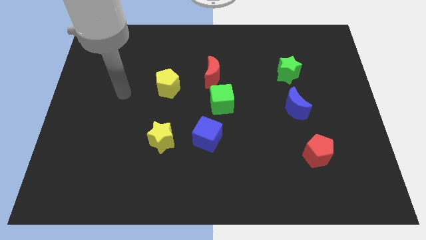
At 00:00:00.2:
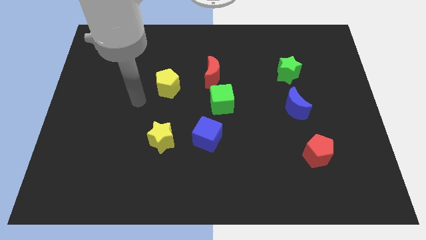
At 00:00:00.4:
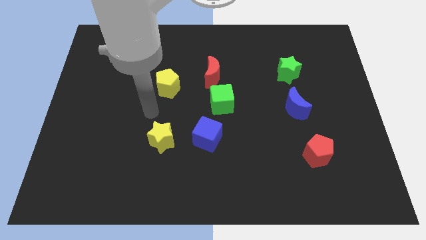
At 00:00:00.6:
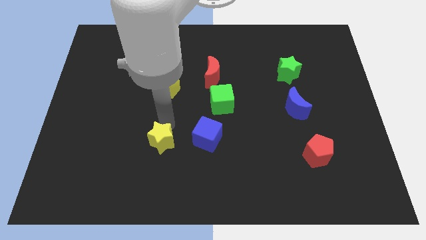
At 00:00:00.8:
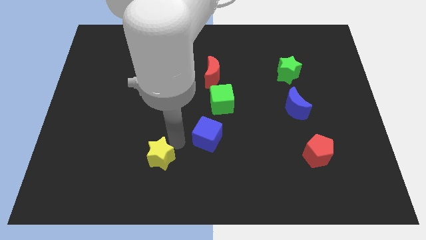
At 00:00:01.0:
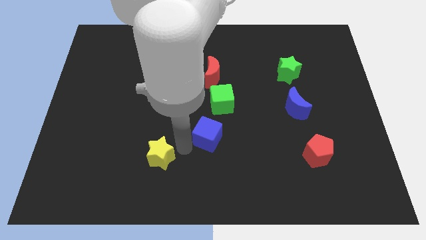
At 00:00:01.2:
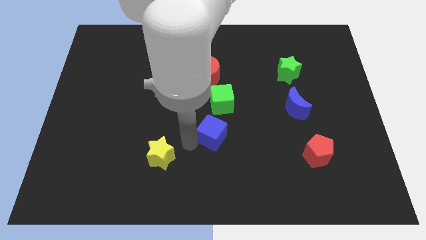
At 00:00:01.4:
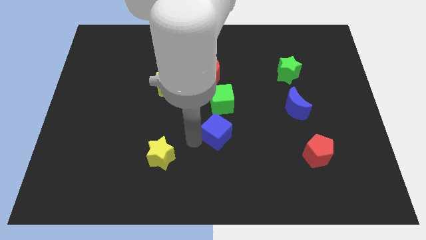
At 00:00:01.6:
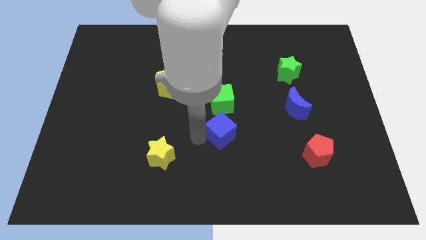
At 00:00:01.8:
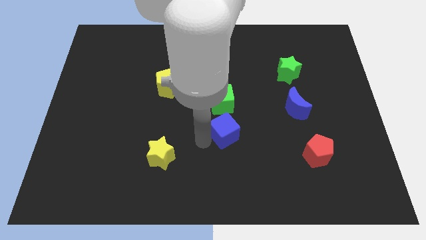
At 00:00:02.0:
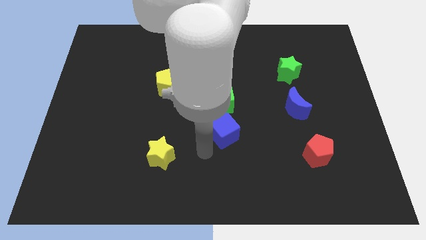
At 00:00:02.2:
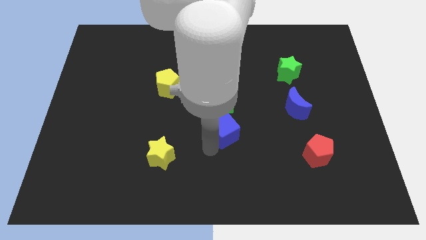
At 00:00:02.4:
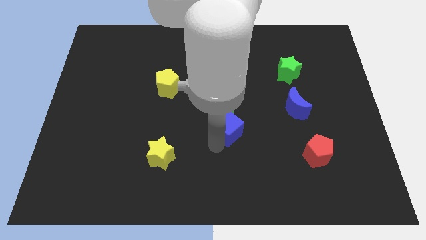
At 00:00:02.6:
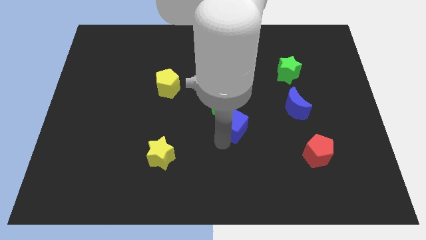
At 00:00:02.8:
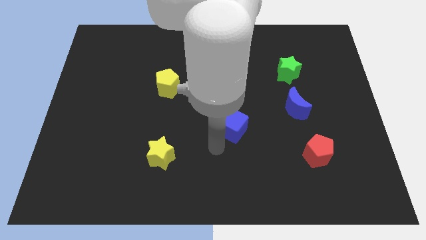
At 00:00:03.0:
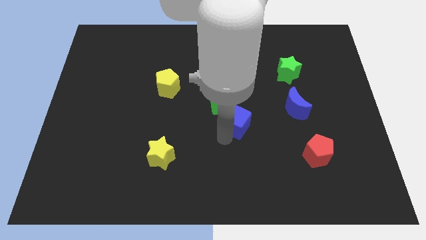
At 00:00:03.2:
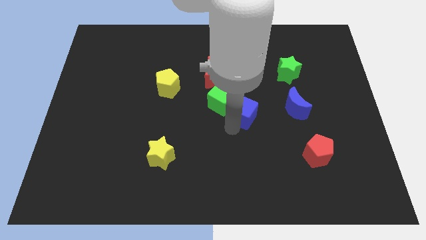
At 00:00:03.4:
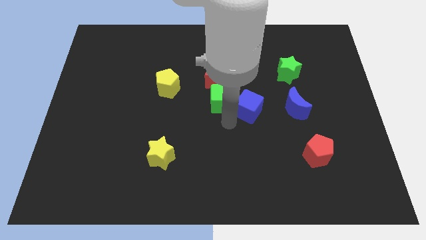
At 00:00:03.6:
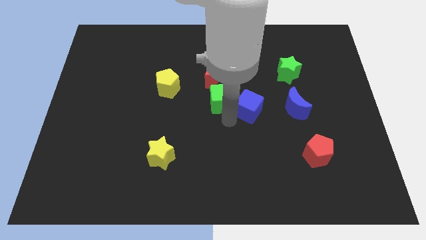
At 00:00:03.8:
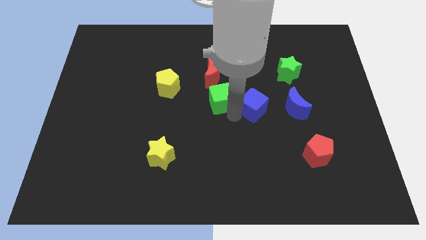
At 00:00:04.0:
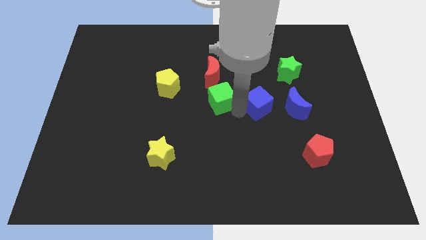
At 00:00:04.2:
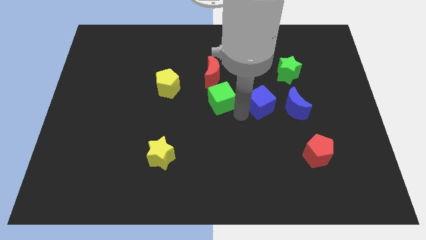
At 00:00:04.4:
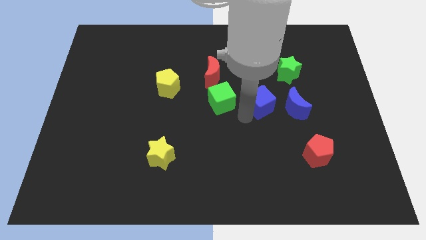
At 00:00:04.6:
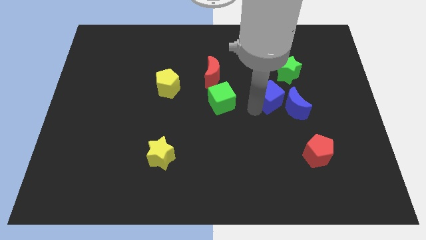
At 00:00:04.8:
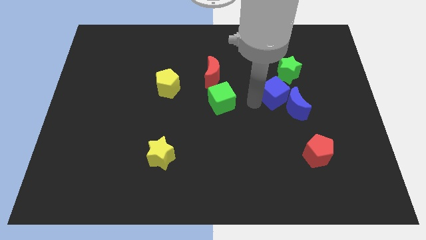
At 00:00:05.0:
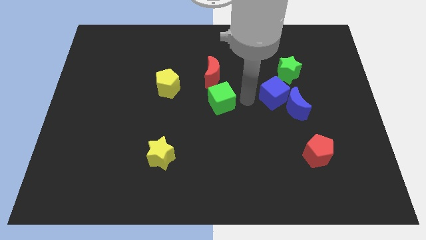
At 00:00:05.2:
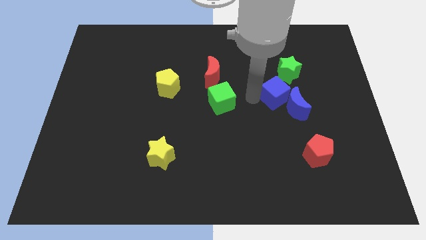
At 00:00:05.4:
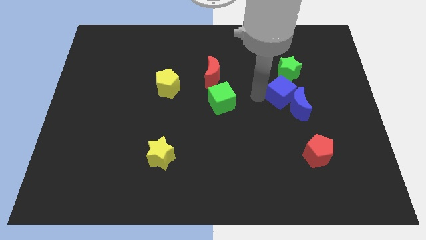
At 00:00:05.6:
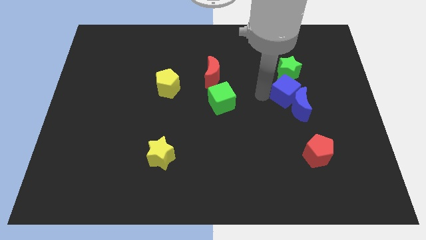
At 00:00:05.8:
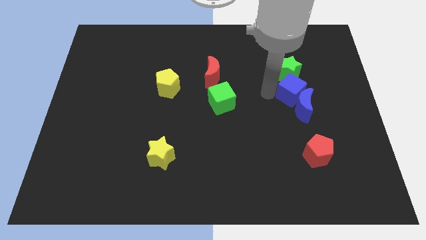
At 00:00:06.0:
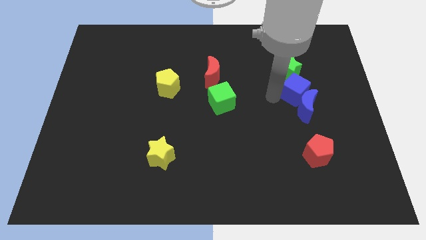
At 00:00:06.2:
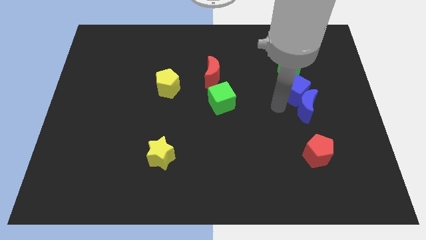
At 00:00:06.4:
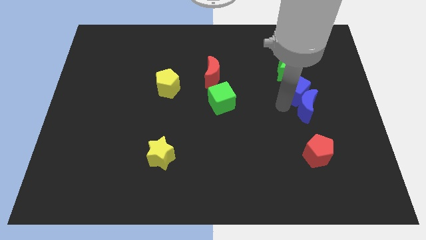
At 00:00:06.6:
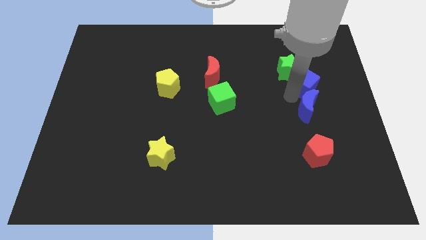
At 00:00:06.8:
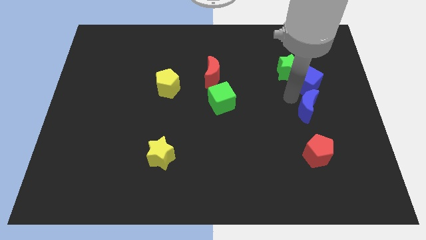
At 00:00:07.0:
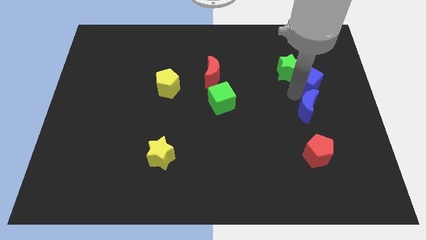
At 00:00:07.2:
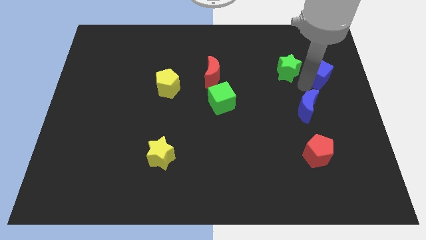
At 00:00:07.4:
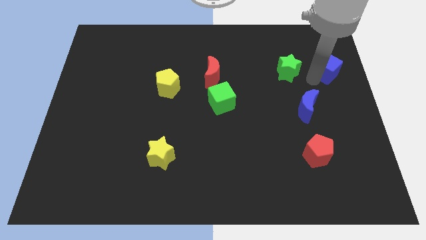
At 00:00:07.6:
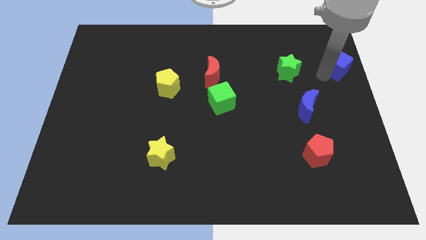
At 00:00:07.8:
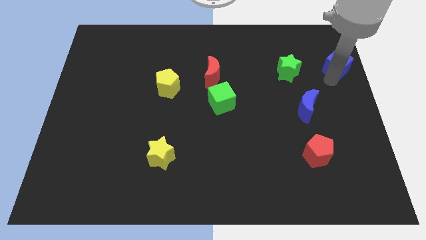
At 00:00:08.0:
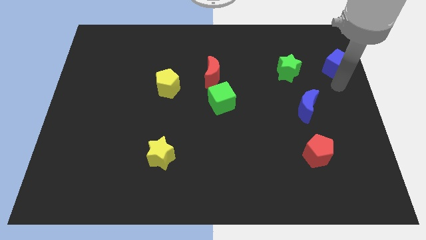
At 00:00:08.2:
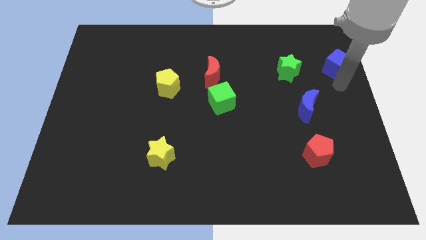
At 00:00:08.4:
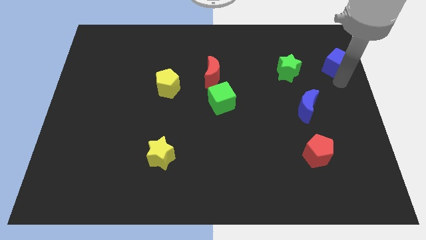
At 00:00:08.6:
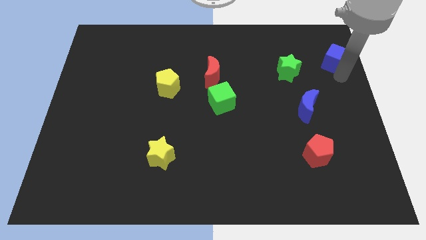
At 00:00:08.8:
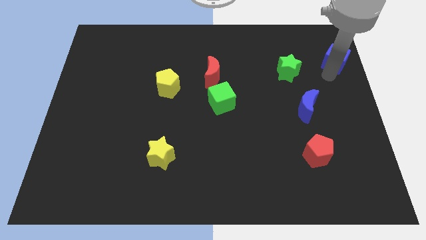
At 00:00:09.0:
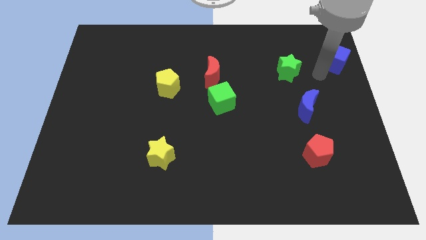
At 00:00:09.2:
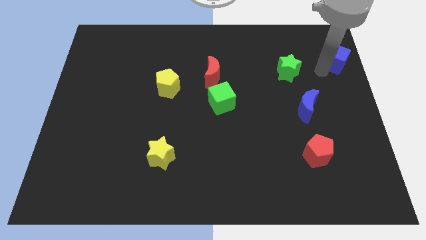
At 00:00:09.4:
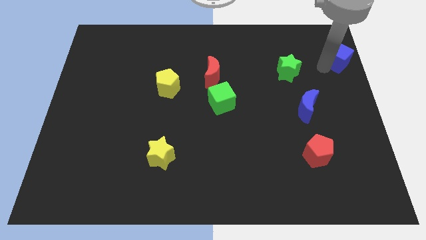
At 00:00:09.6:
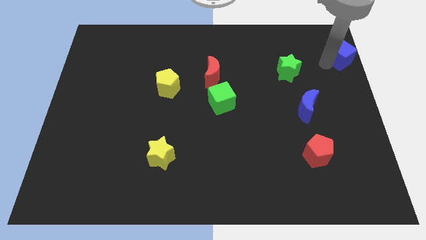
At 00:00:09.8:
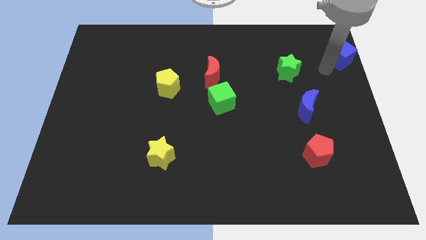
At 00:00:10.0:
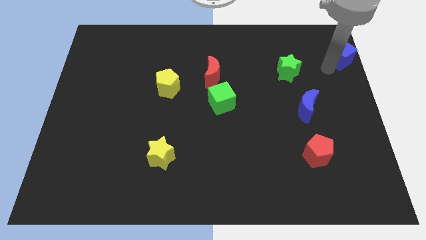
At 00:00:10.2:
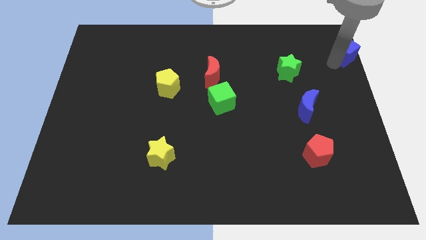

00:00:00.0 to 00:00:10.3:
push the blue cube to the top right corner

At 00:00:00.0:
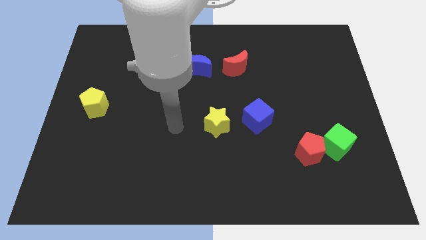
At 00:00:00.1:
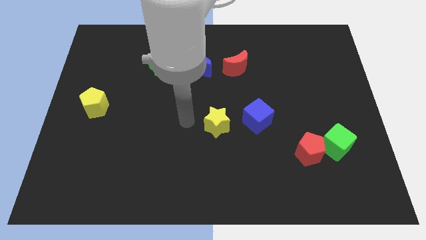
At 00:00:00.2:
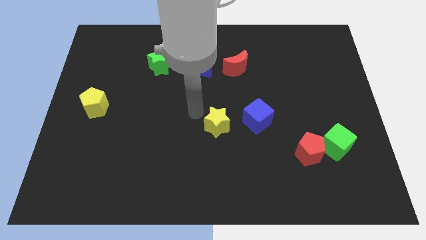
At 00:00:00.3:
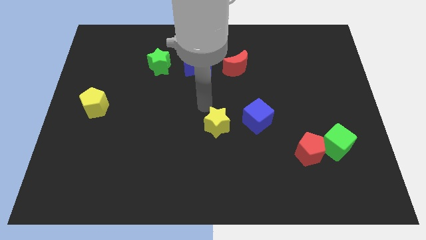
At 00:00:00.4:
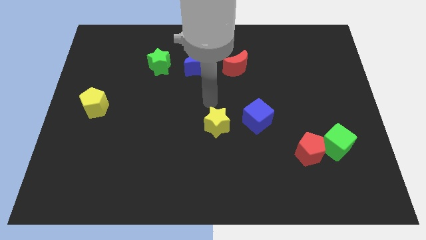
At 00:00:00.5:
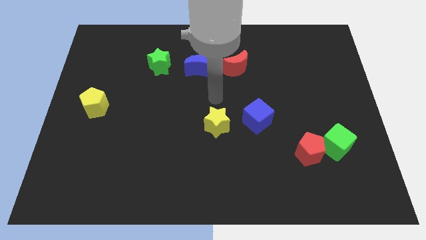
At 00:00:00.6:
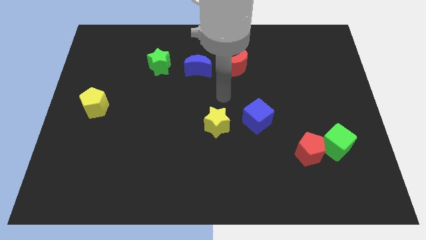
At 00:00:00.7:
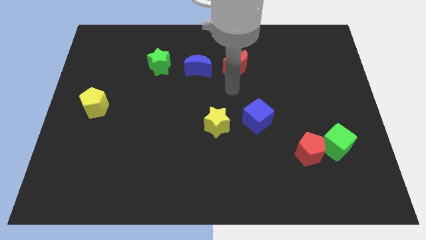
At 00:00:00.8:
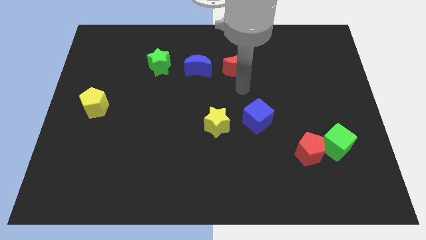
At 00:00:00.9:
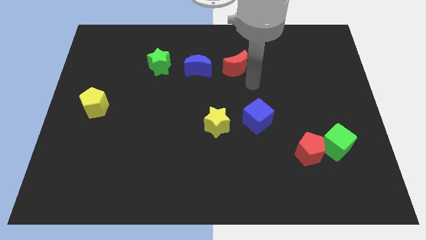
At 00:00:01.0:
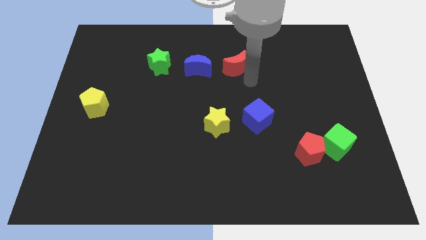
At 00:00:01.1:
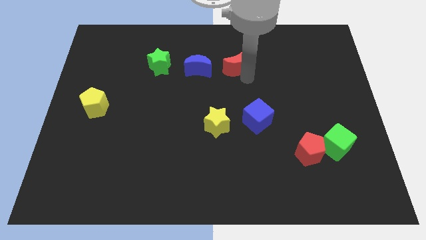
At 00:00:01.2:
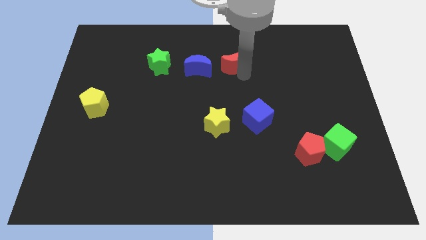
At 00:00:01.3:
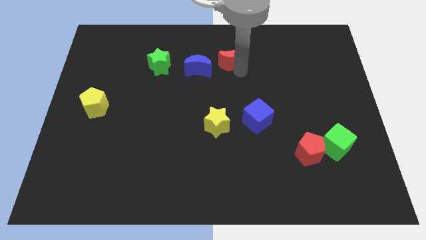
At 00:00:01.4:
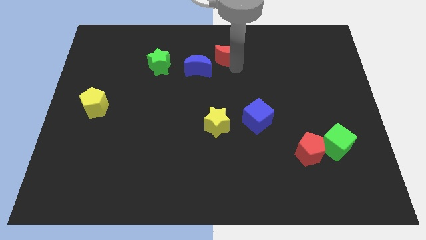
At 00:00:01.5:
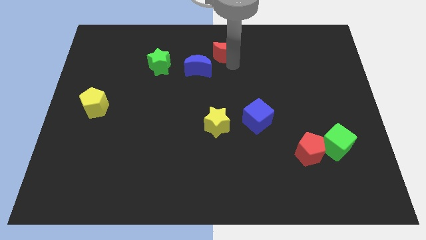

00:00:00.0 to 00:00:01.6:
slide the red moon to the top
